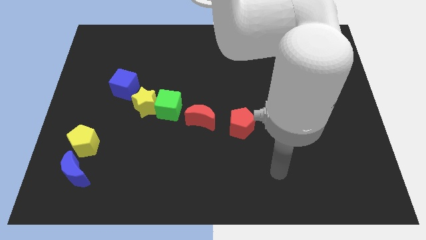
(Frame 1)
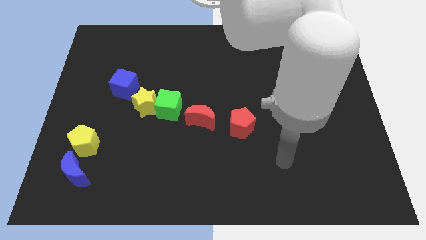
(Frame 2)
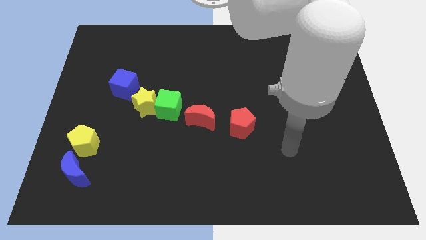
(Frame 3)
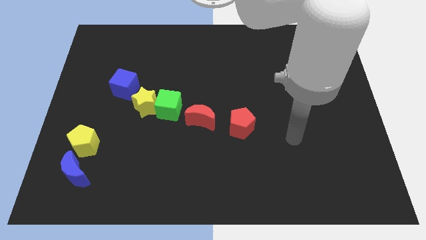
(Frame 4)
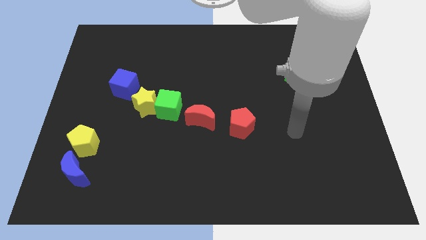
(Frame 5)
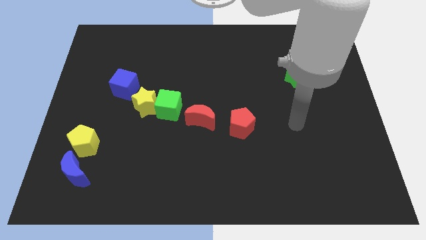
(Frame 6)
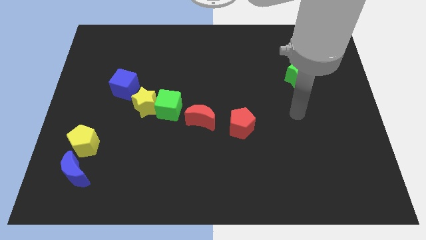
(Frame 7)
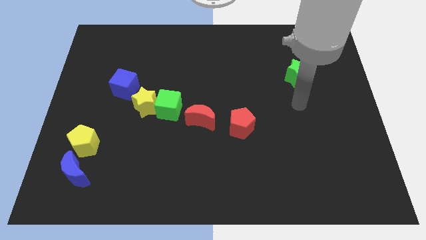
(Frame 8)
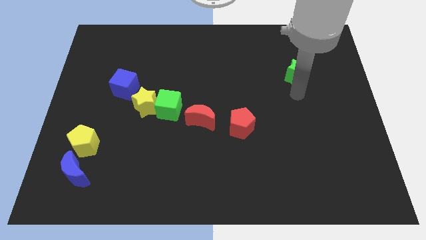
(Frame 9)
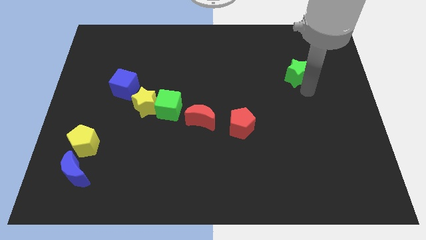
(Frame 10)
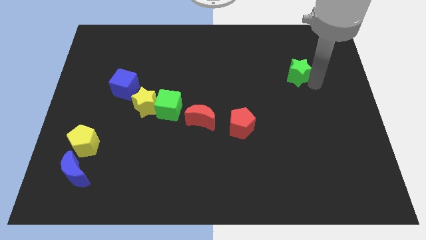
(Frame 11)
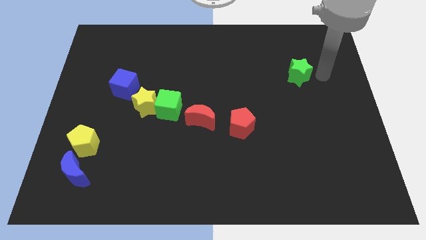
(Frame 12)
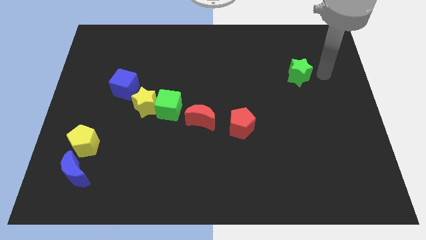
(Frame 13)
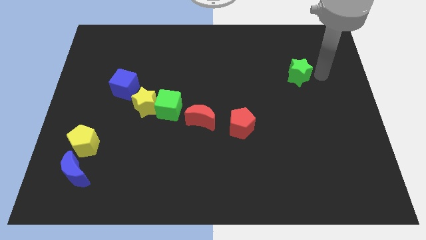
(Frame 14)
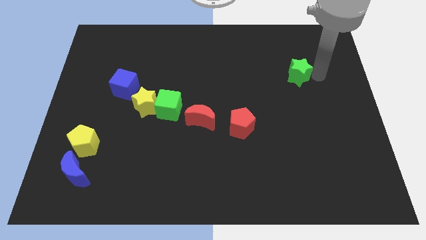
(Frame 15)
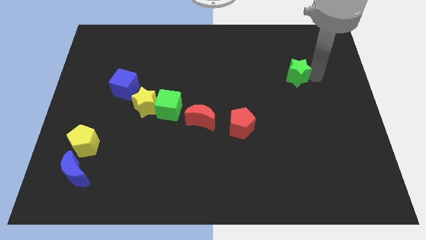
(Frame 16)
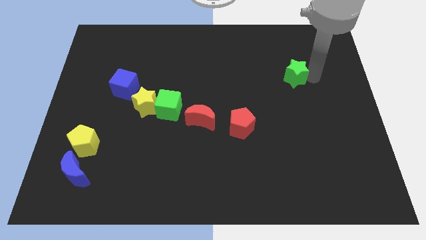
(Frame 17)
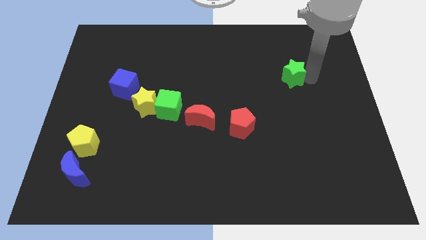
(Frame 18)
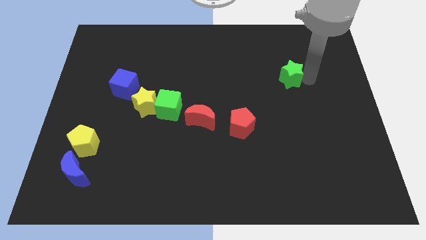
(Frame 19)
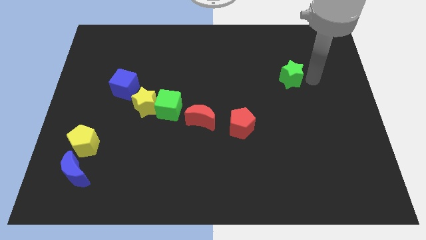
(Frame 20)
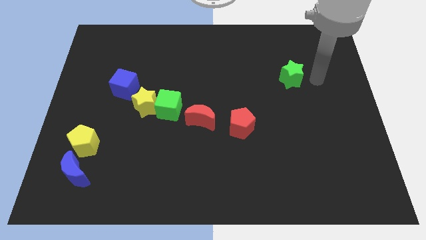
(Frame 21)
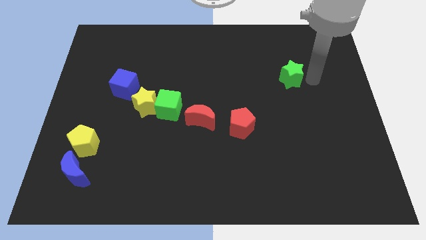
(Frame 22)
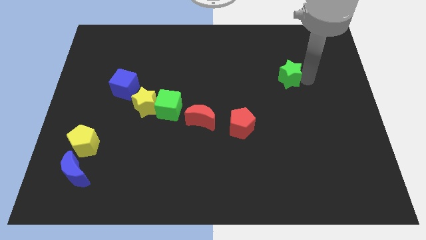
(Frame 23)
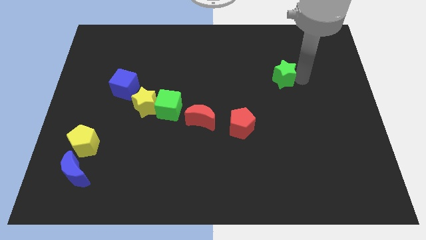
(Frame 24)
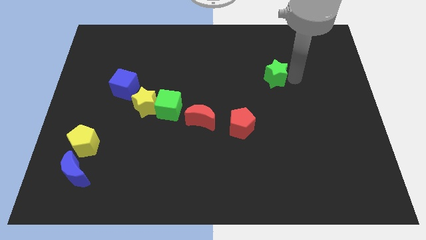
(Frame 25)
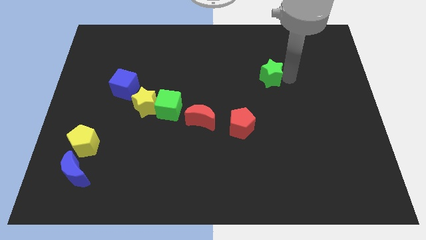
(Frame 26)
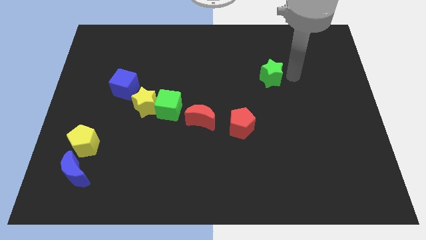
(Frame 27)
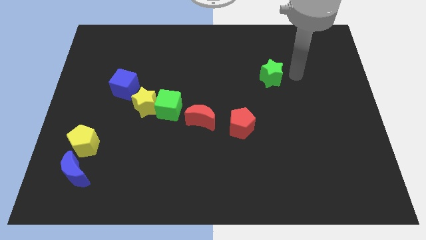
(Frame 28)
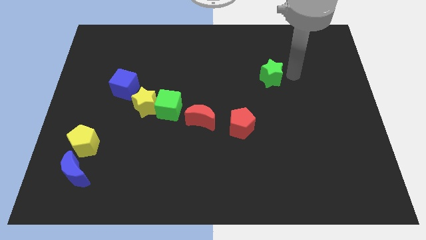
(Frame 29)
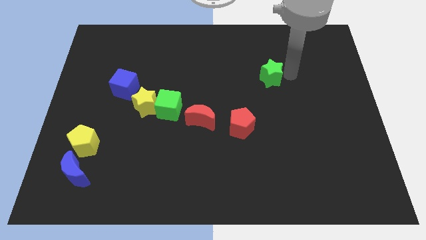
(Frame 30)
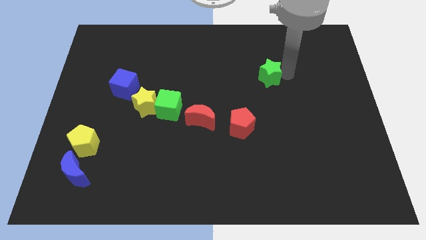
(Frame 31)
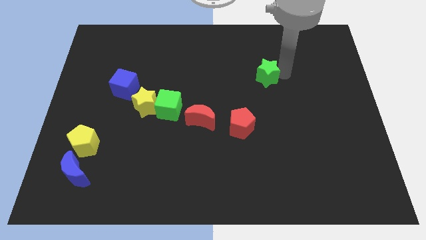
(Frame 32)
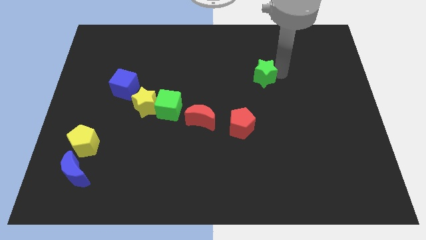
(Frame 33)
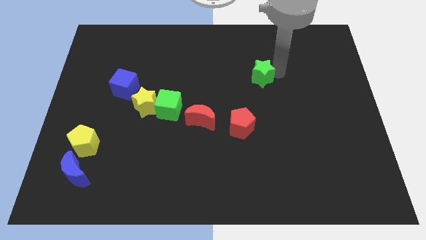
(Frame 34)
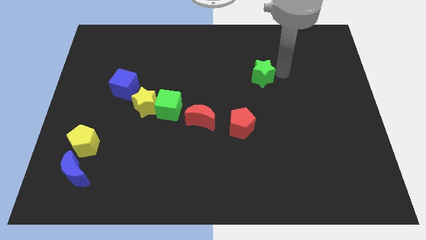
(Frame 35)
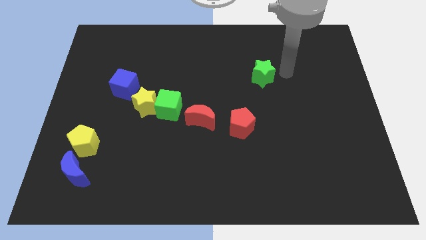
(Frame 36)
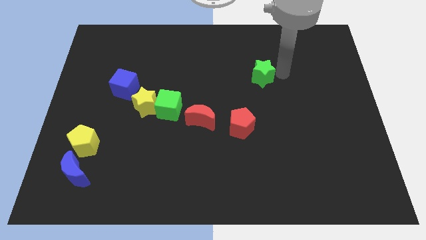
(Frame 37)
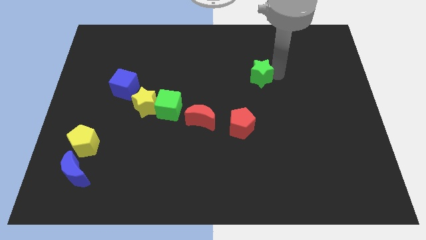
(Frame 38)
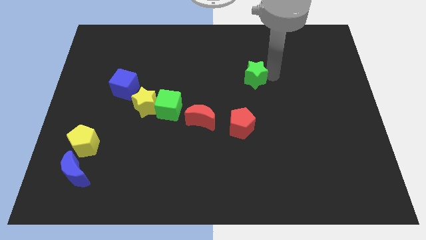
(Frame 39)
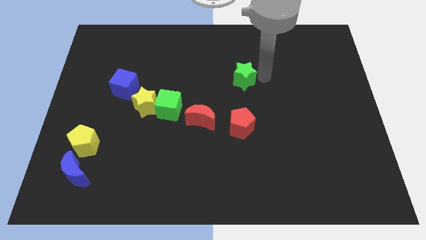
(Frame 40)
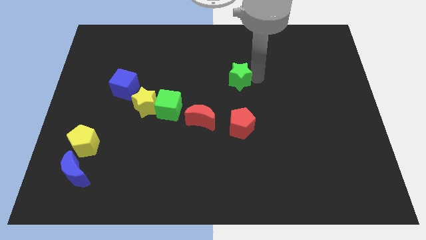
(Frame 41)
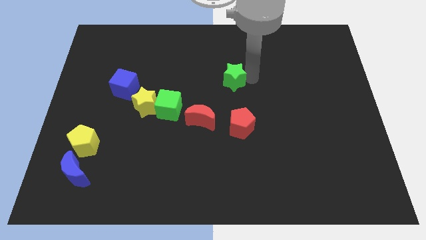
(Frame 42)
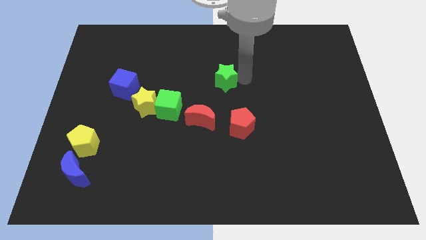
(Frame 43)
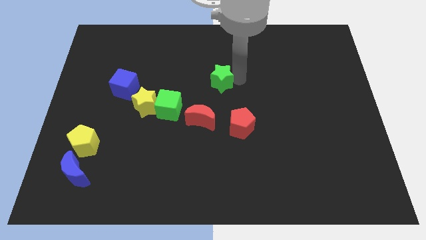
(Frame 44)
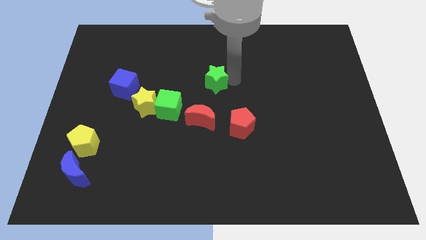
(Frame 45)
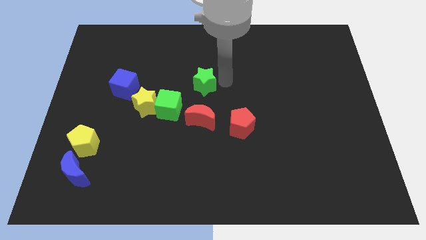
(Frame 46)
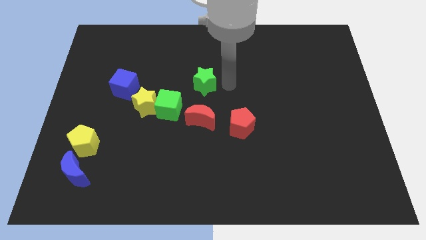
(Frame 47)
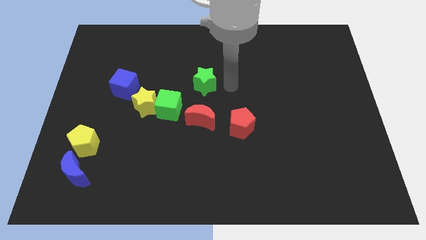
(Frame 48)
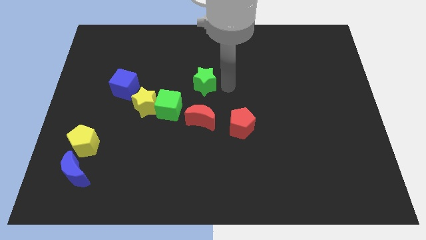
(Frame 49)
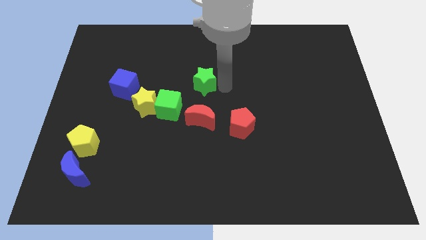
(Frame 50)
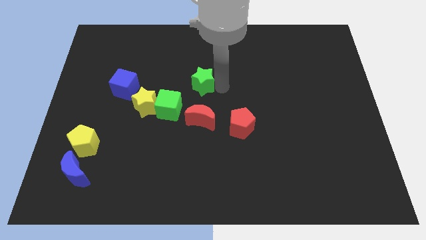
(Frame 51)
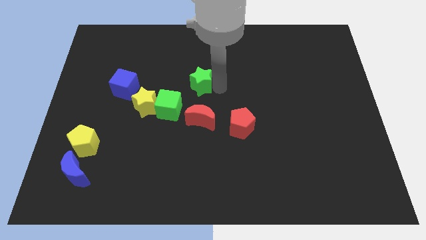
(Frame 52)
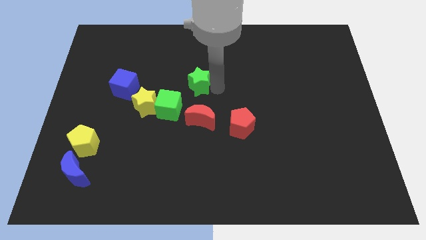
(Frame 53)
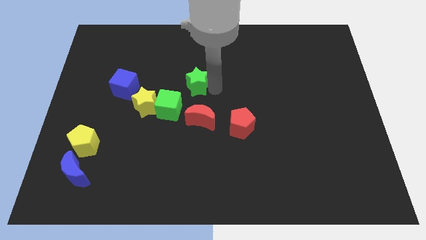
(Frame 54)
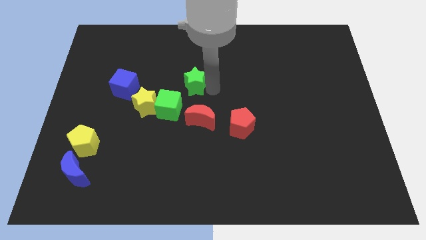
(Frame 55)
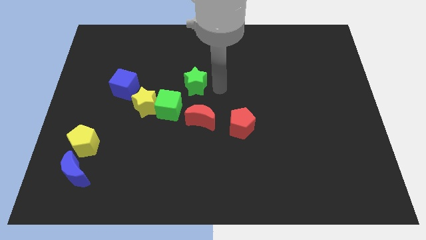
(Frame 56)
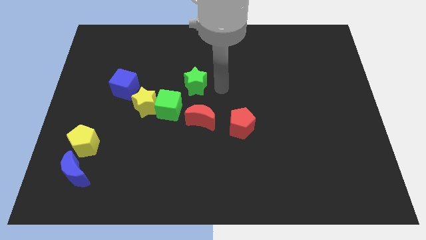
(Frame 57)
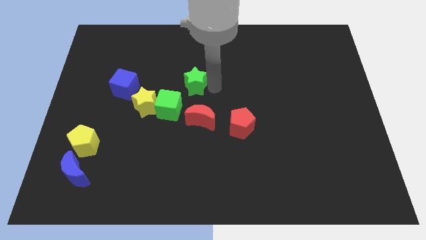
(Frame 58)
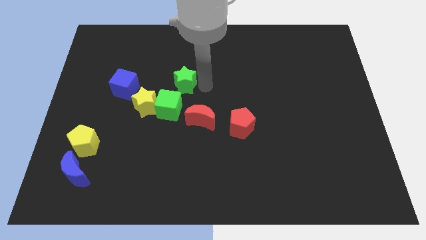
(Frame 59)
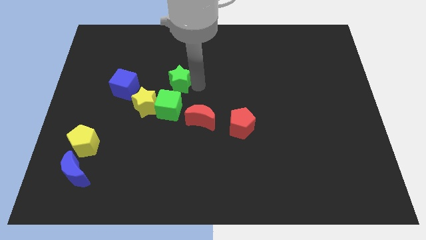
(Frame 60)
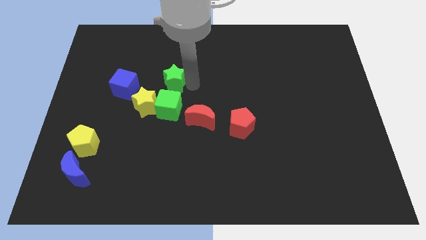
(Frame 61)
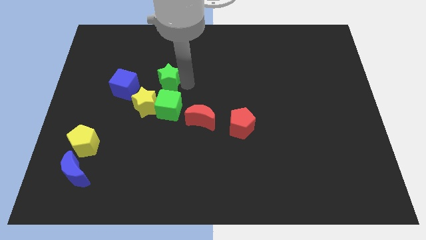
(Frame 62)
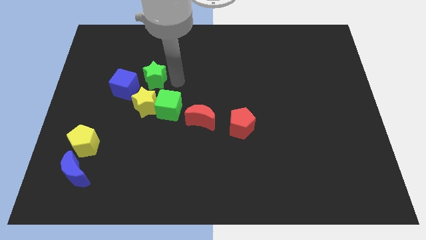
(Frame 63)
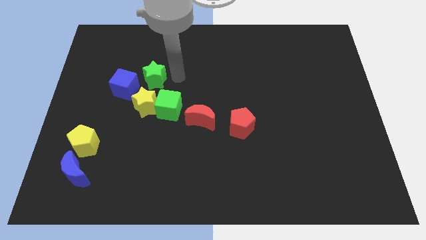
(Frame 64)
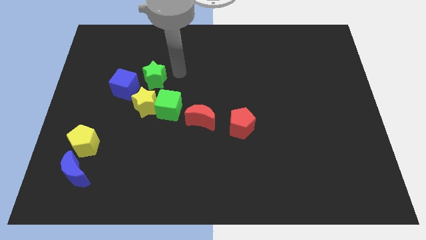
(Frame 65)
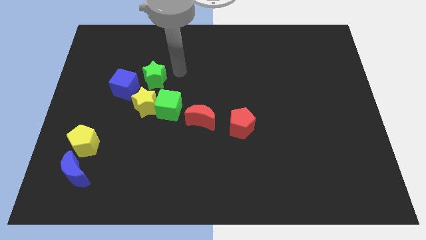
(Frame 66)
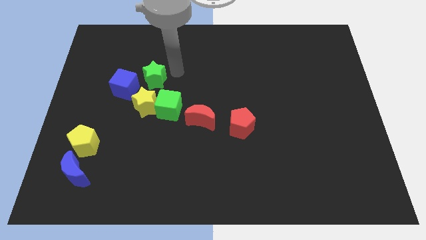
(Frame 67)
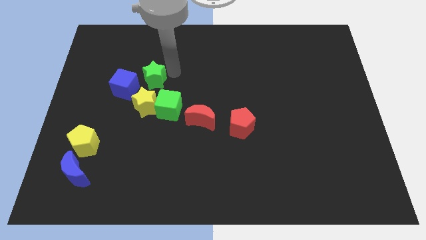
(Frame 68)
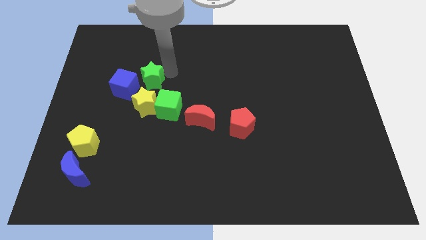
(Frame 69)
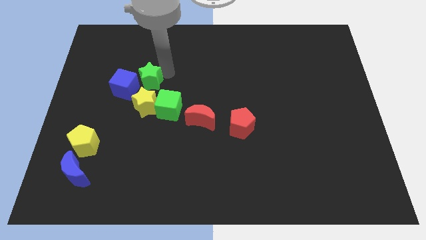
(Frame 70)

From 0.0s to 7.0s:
push the green star to the blue cube
